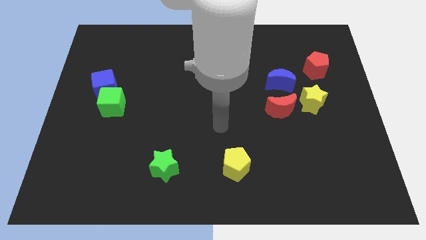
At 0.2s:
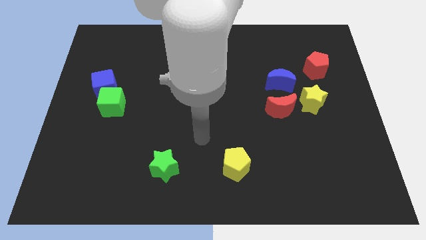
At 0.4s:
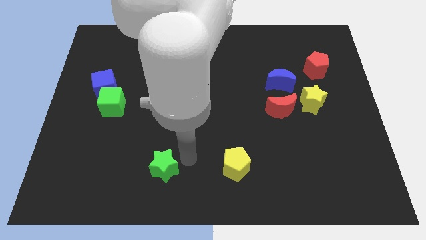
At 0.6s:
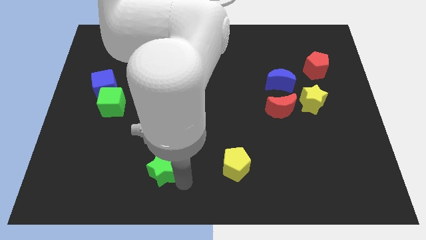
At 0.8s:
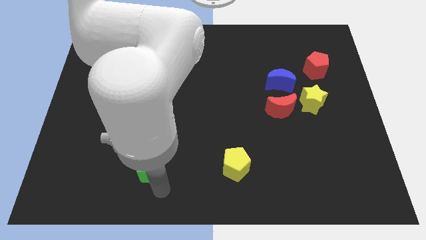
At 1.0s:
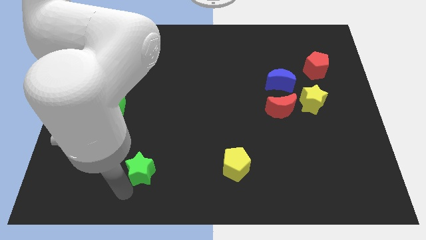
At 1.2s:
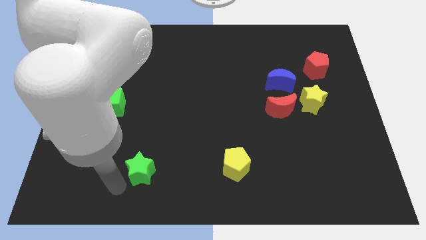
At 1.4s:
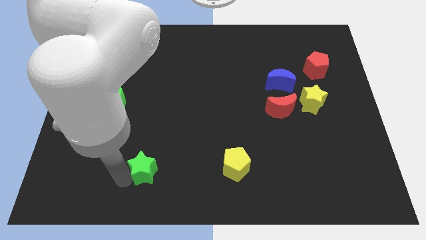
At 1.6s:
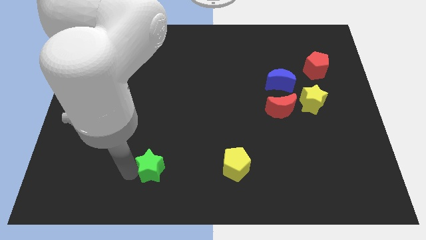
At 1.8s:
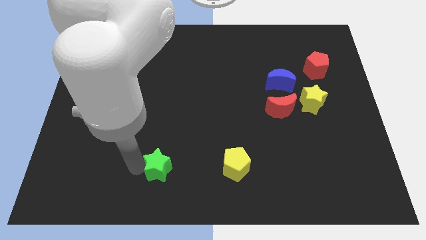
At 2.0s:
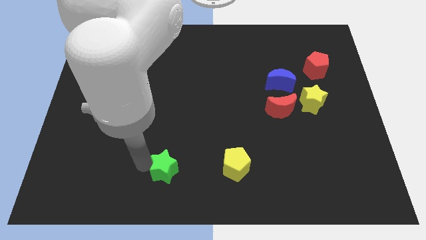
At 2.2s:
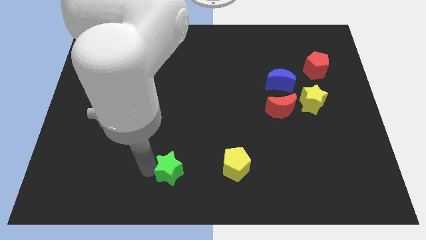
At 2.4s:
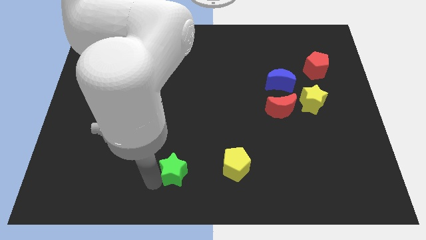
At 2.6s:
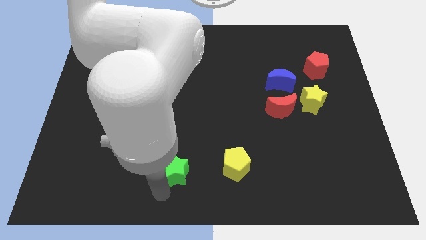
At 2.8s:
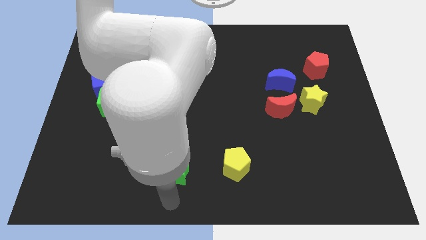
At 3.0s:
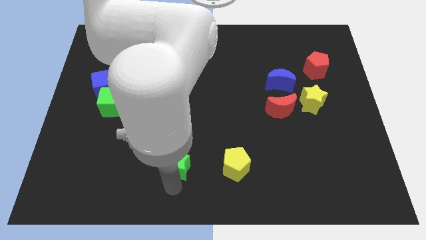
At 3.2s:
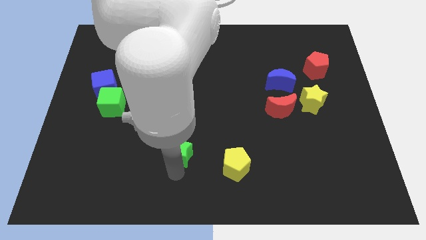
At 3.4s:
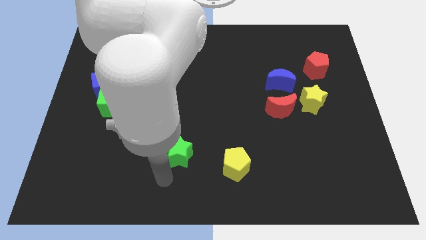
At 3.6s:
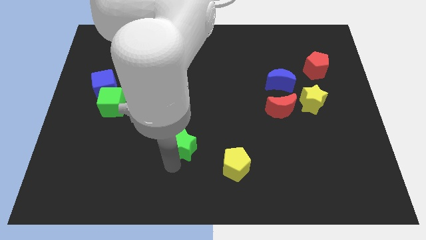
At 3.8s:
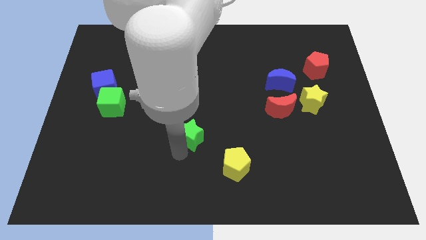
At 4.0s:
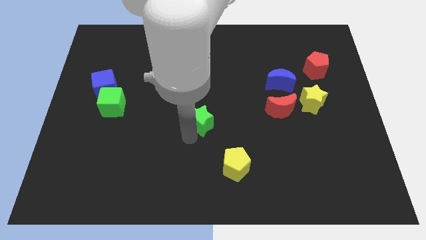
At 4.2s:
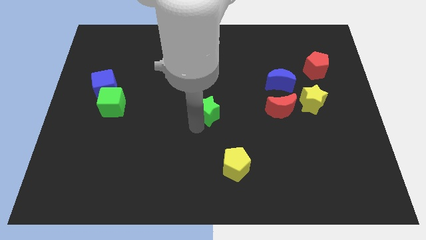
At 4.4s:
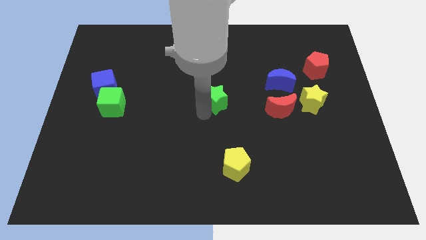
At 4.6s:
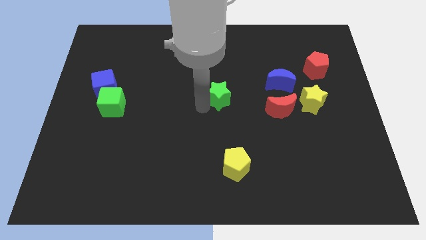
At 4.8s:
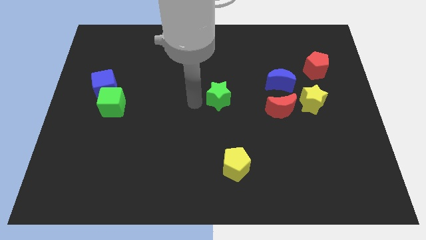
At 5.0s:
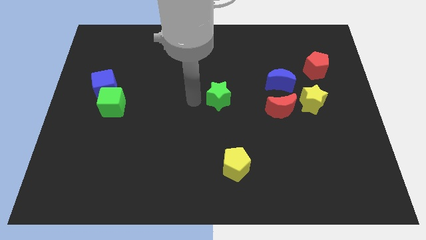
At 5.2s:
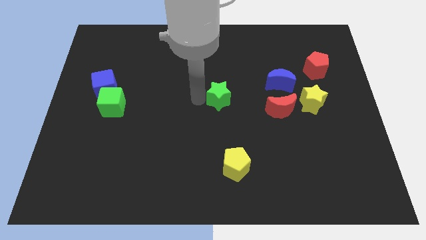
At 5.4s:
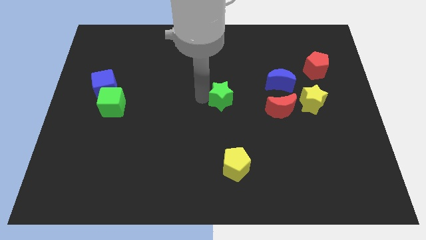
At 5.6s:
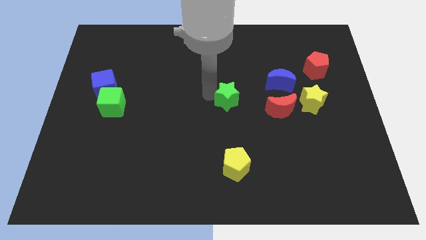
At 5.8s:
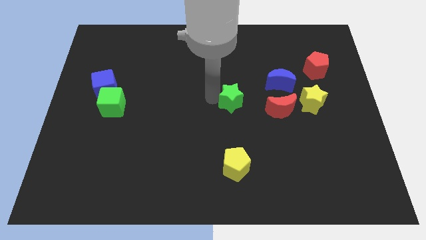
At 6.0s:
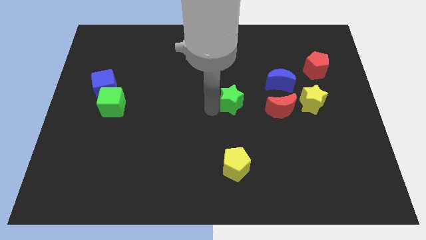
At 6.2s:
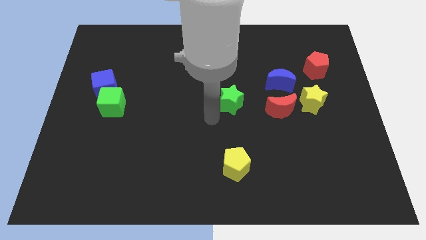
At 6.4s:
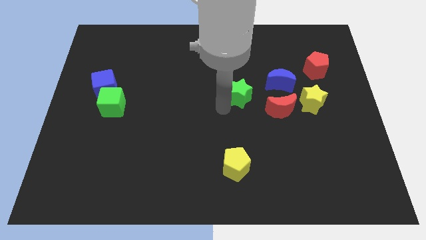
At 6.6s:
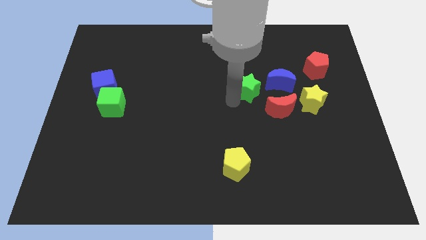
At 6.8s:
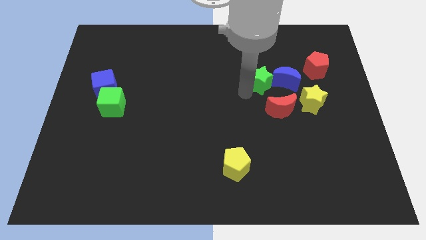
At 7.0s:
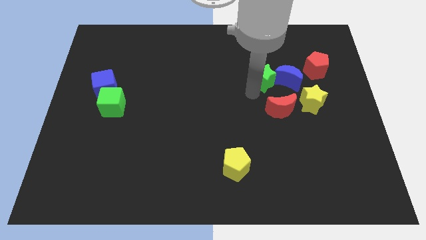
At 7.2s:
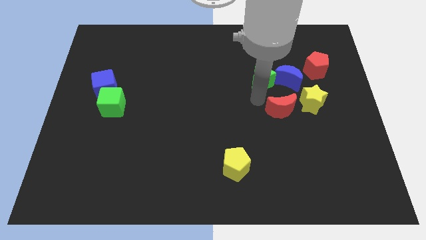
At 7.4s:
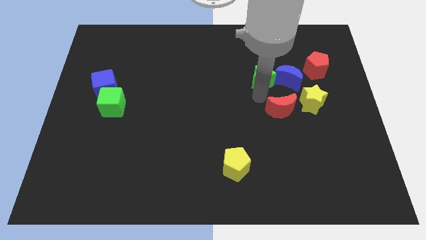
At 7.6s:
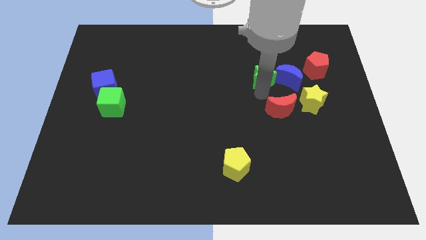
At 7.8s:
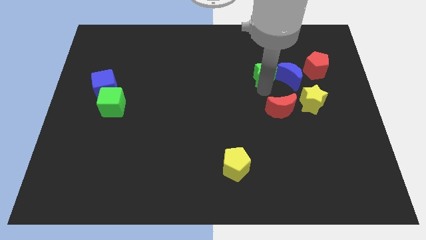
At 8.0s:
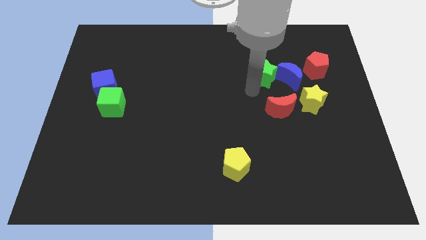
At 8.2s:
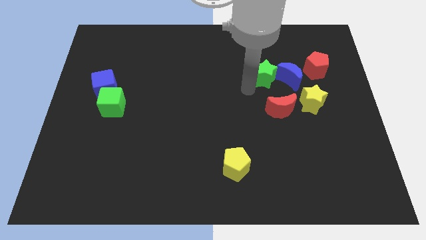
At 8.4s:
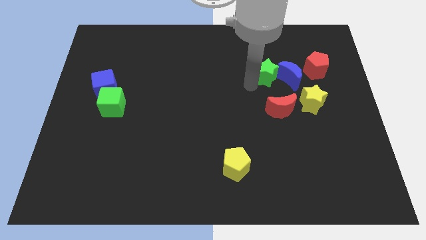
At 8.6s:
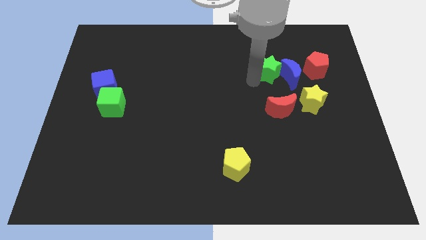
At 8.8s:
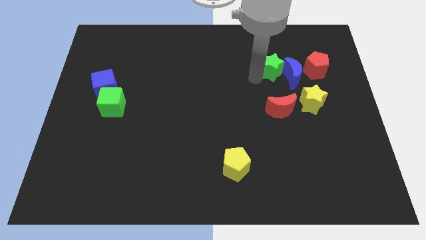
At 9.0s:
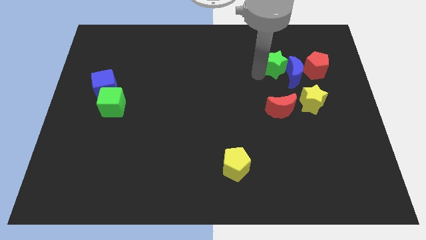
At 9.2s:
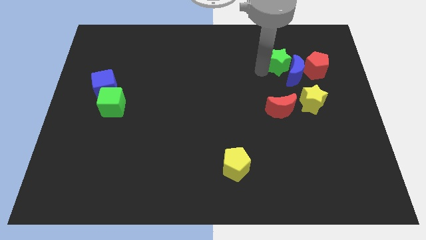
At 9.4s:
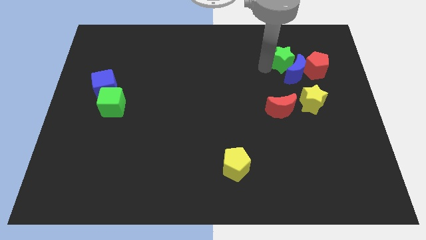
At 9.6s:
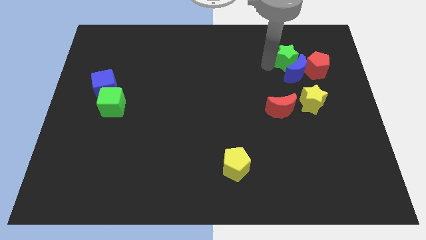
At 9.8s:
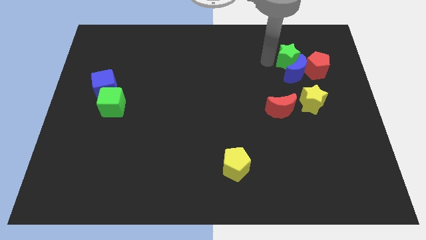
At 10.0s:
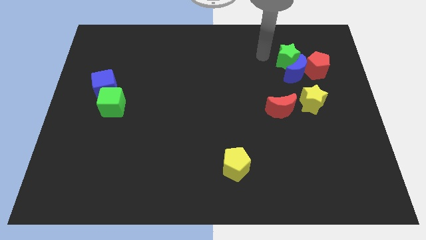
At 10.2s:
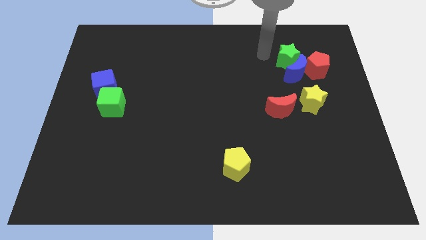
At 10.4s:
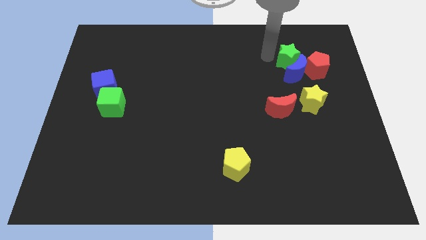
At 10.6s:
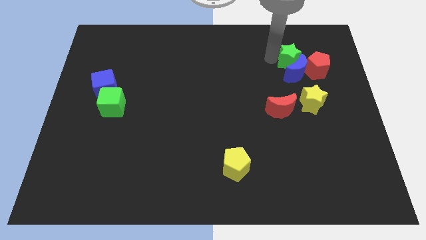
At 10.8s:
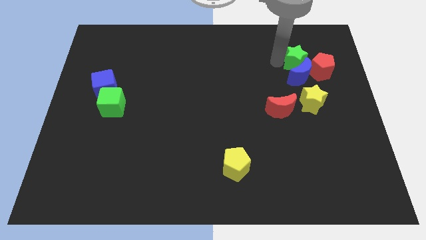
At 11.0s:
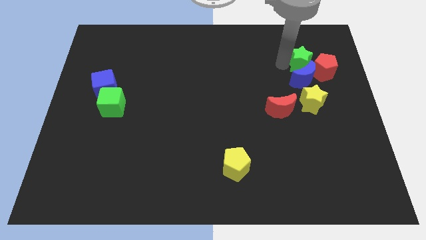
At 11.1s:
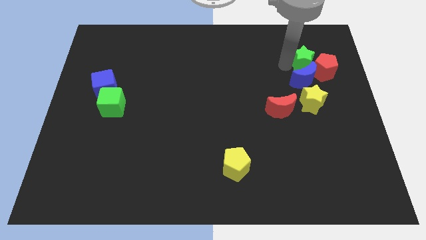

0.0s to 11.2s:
move the green star close to the red pentagon

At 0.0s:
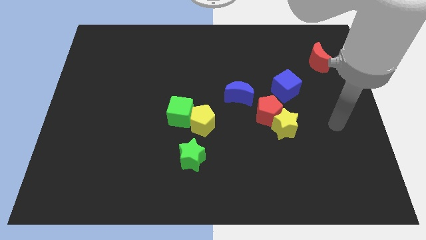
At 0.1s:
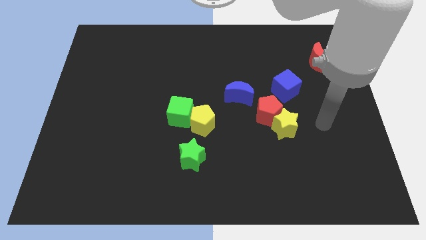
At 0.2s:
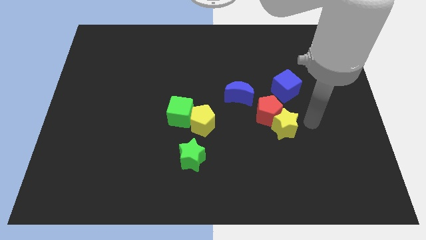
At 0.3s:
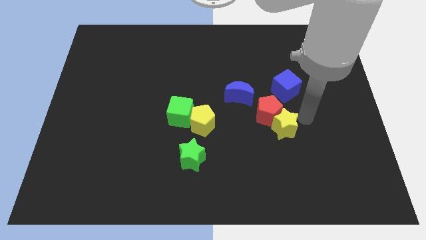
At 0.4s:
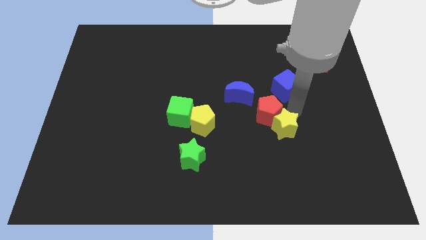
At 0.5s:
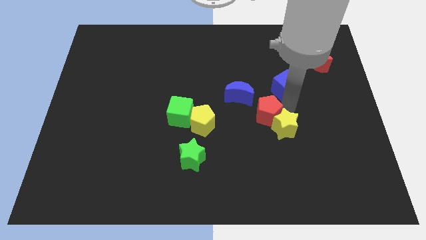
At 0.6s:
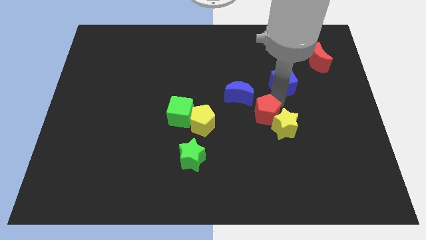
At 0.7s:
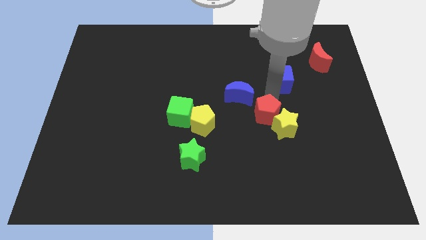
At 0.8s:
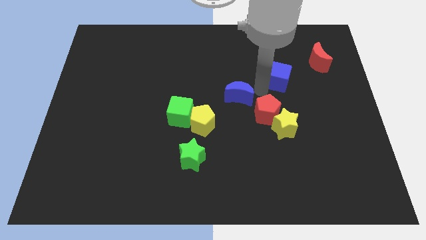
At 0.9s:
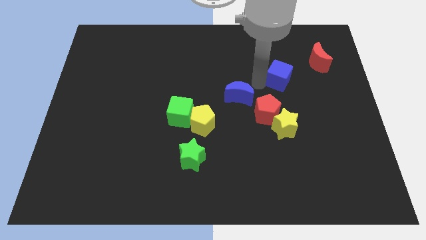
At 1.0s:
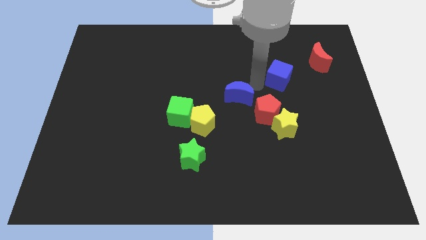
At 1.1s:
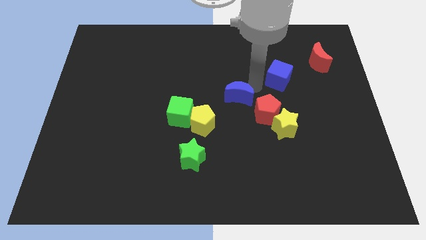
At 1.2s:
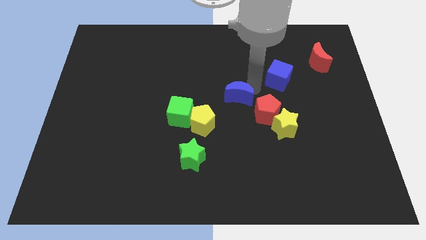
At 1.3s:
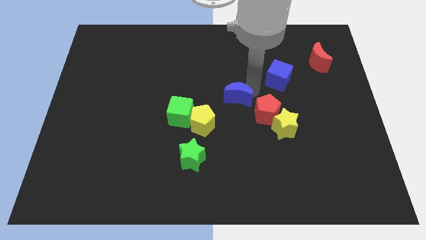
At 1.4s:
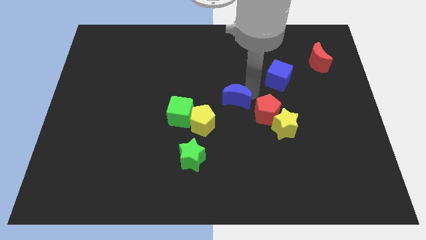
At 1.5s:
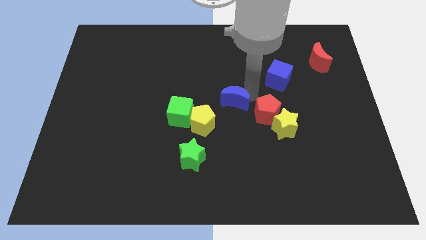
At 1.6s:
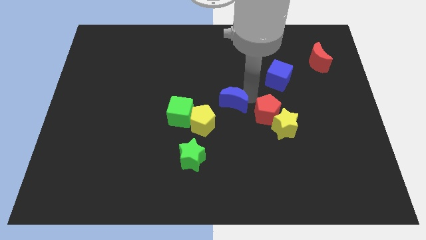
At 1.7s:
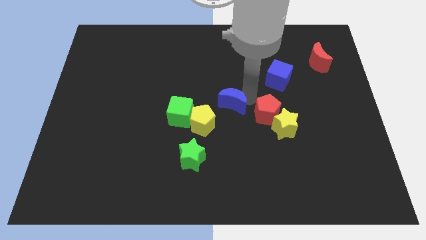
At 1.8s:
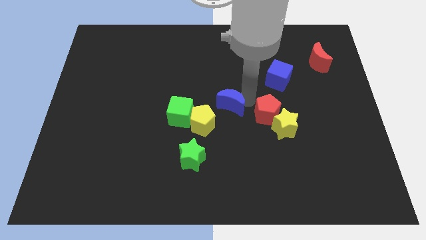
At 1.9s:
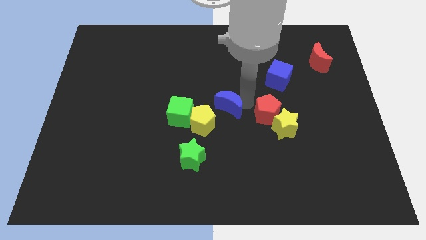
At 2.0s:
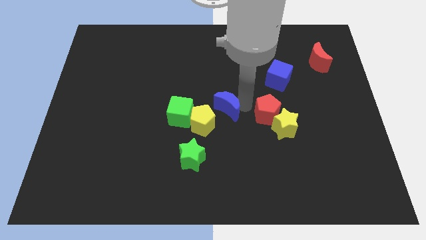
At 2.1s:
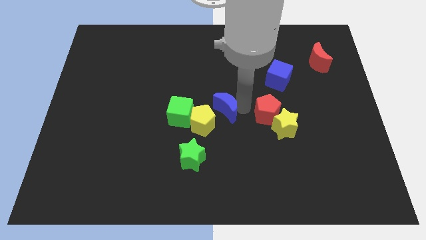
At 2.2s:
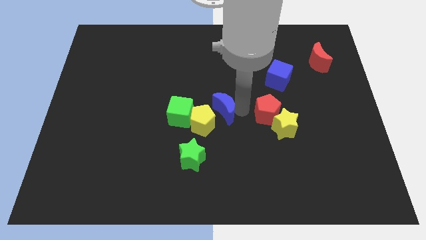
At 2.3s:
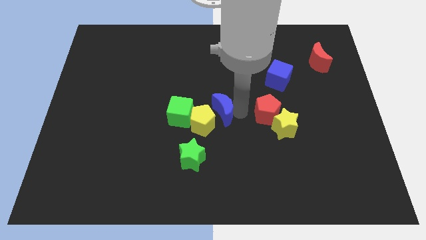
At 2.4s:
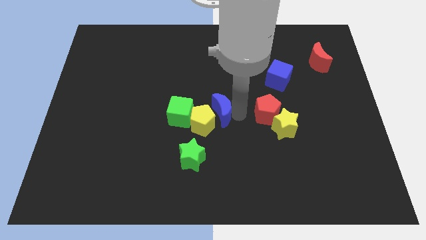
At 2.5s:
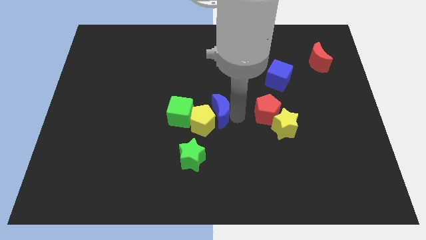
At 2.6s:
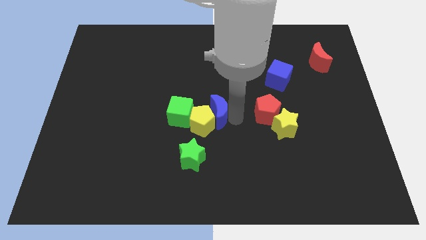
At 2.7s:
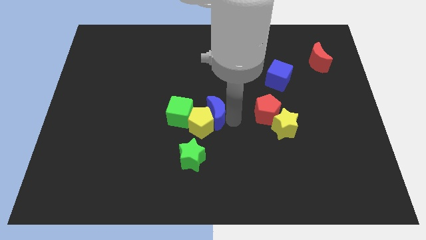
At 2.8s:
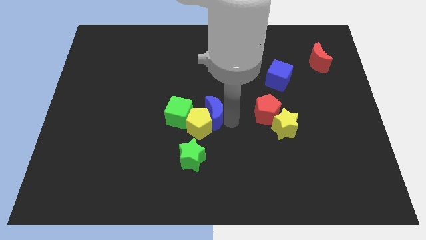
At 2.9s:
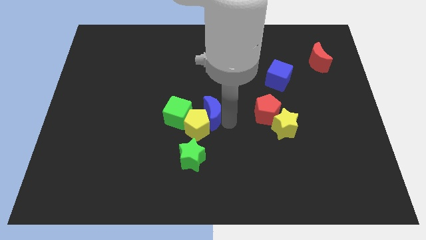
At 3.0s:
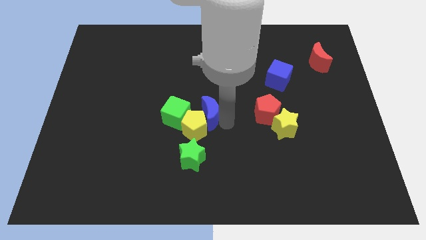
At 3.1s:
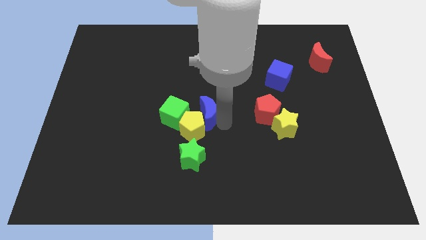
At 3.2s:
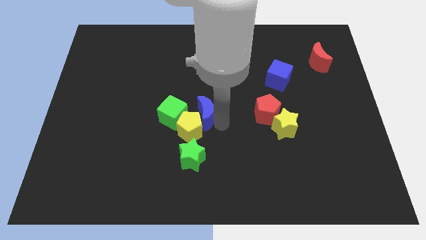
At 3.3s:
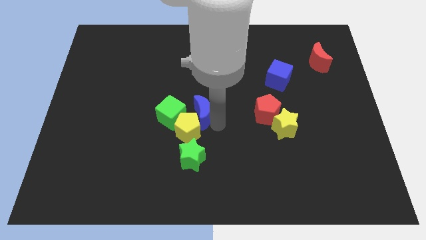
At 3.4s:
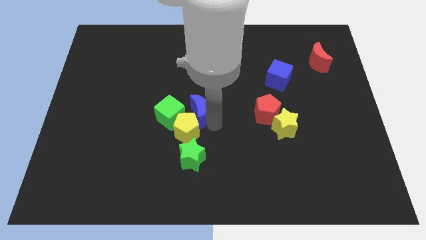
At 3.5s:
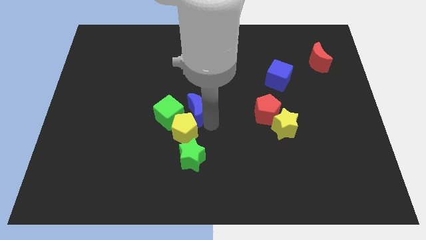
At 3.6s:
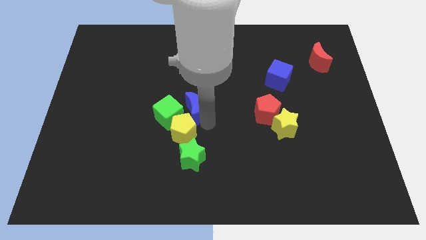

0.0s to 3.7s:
push the blue moon towards the green cube
